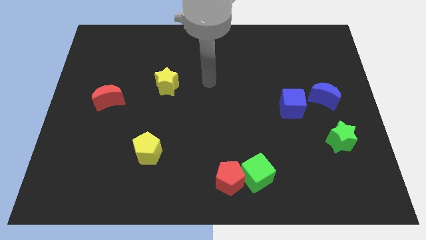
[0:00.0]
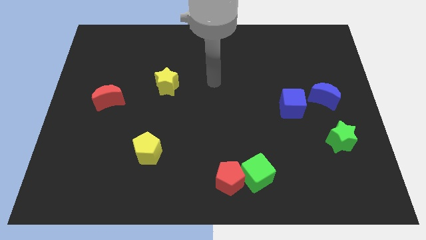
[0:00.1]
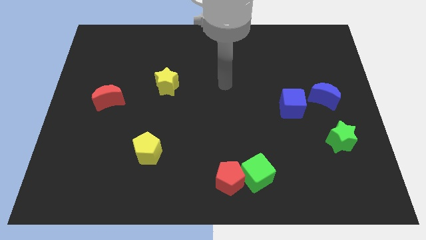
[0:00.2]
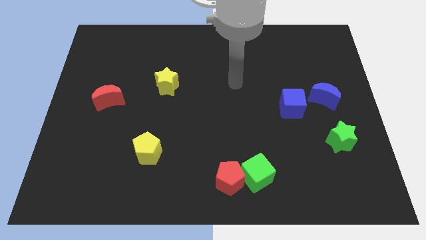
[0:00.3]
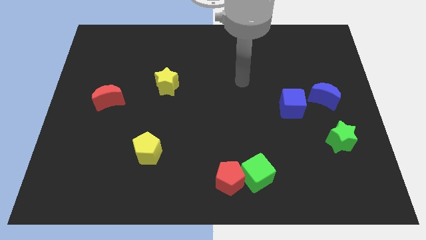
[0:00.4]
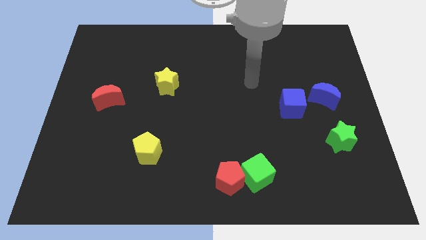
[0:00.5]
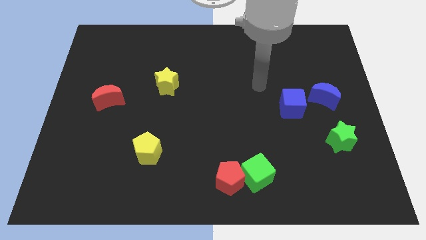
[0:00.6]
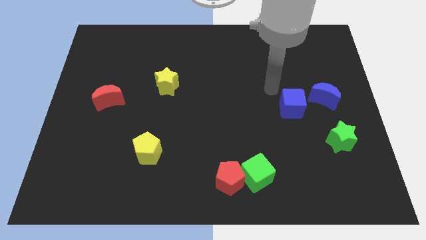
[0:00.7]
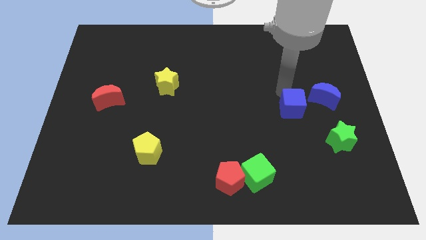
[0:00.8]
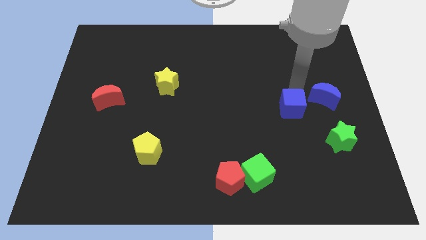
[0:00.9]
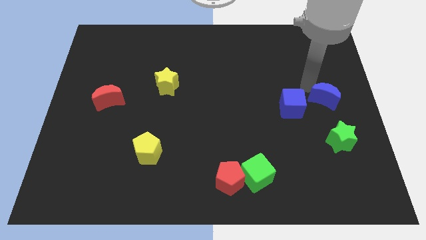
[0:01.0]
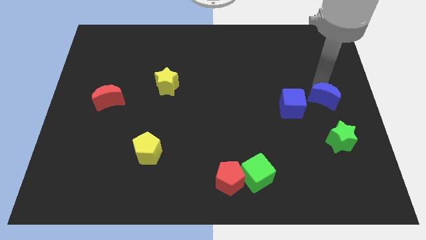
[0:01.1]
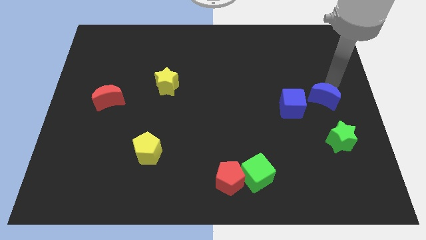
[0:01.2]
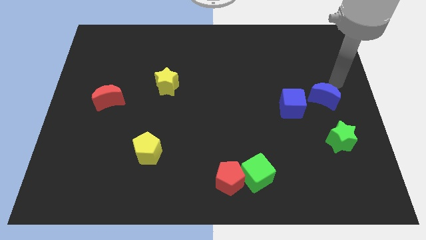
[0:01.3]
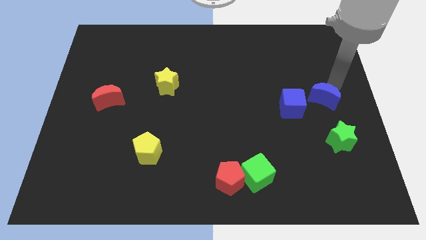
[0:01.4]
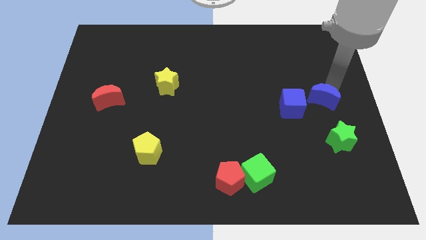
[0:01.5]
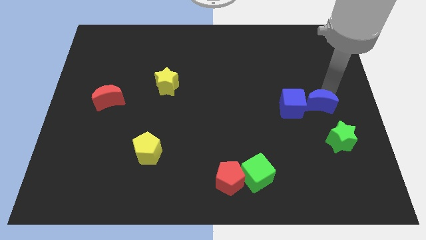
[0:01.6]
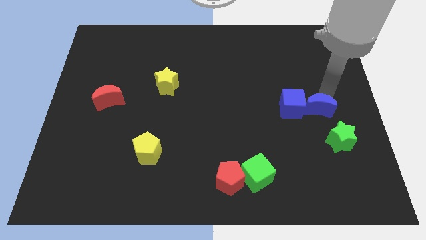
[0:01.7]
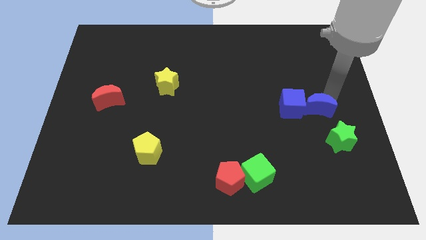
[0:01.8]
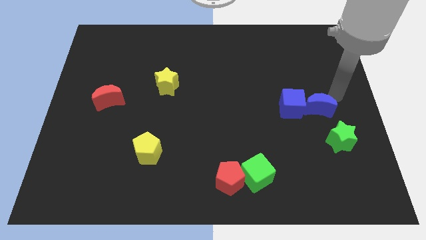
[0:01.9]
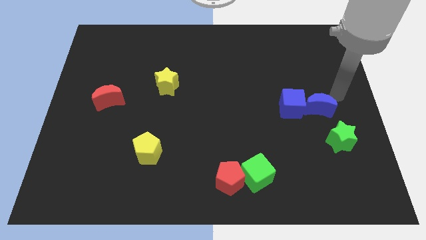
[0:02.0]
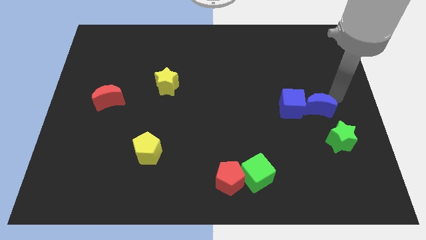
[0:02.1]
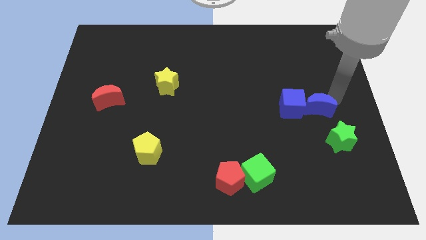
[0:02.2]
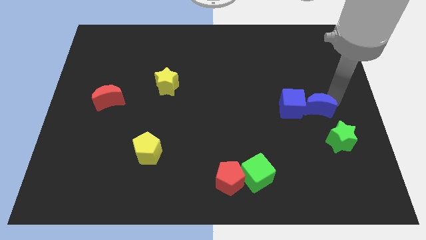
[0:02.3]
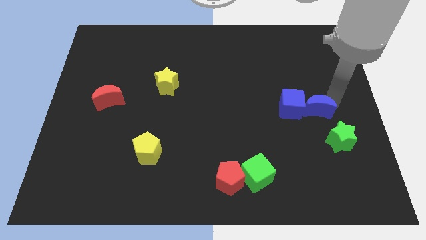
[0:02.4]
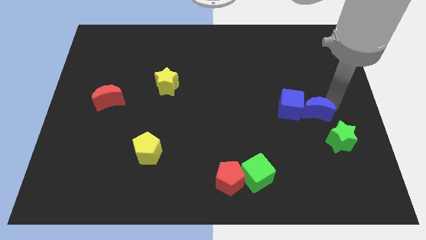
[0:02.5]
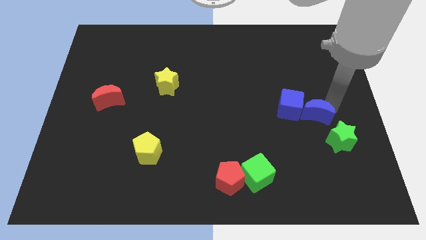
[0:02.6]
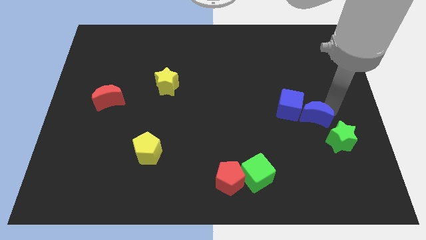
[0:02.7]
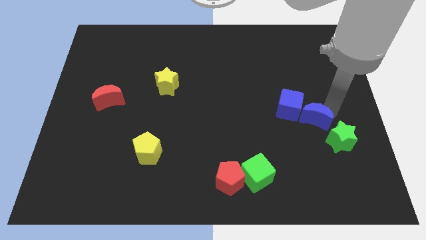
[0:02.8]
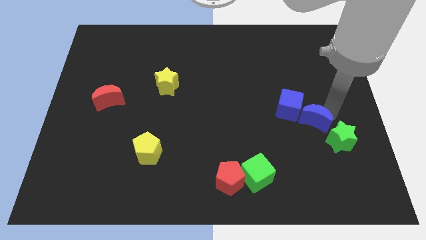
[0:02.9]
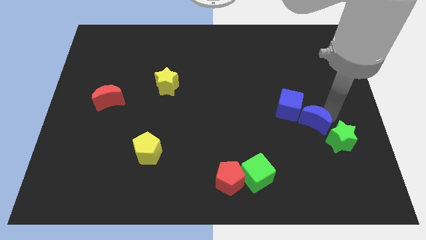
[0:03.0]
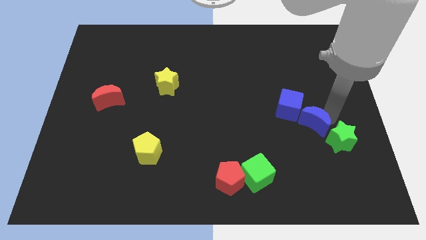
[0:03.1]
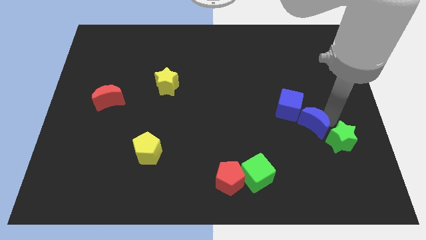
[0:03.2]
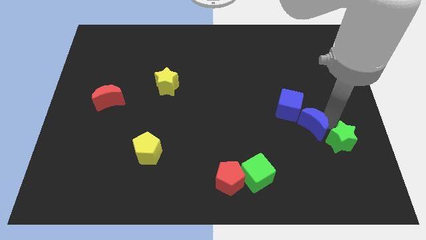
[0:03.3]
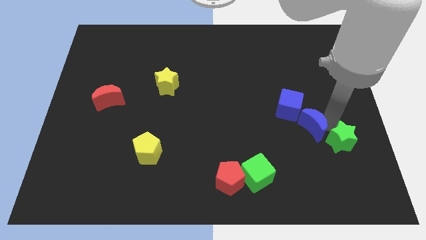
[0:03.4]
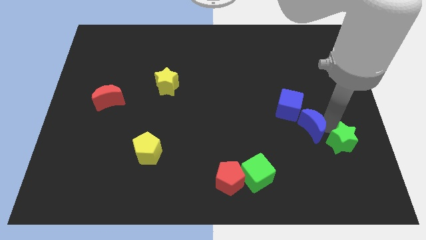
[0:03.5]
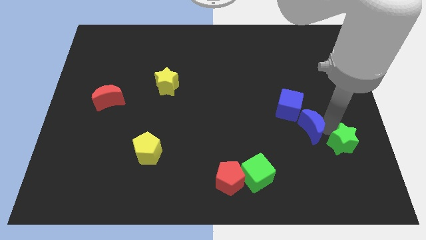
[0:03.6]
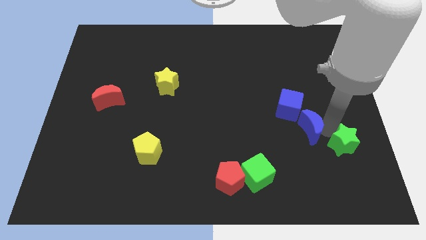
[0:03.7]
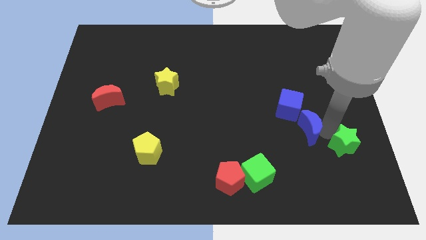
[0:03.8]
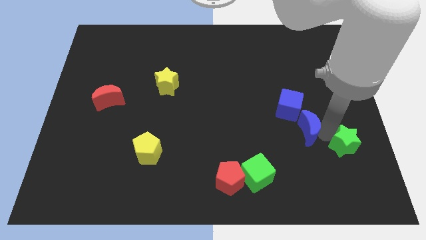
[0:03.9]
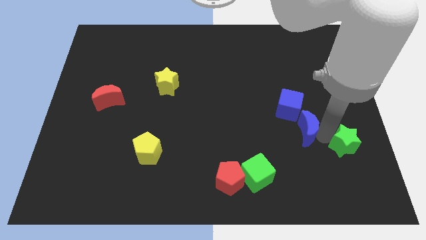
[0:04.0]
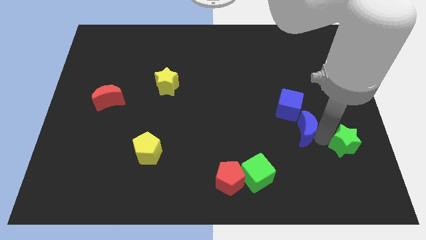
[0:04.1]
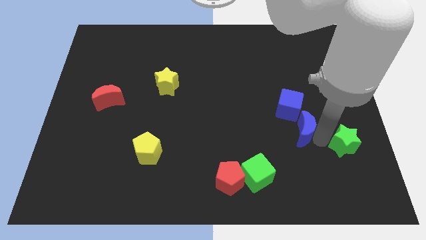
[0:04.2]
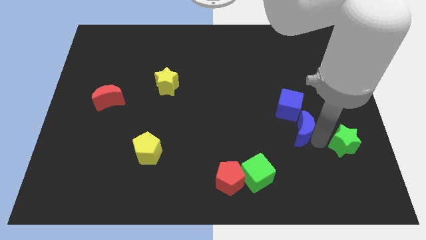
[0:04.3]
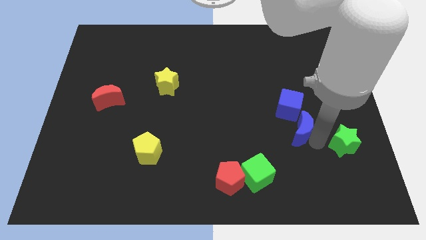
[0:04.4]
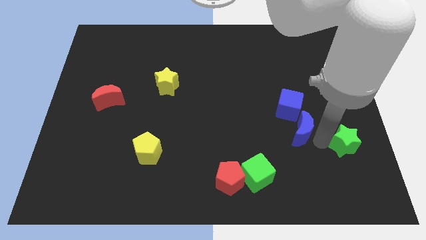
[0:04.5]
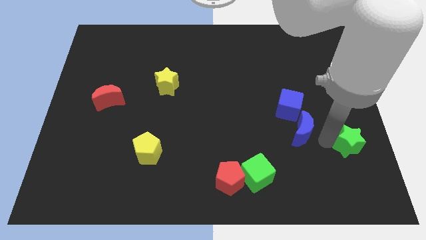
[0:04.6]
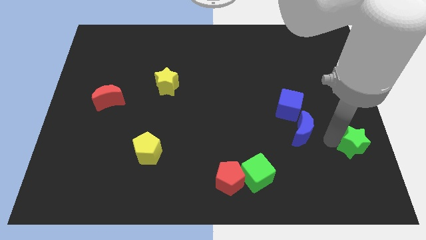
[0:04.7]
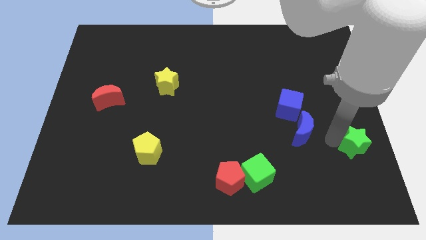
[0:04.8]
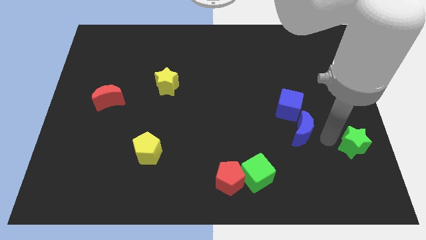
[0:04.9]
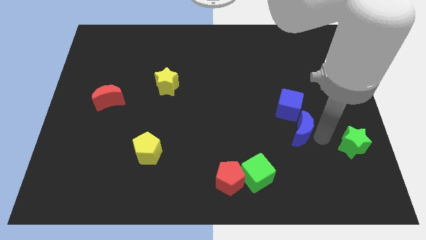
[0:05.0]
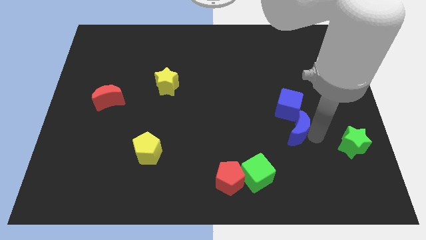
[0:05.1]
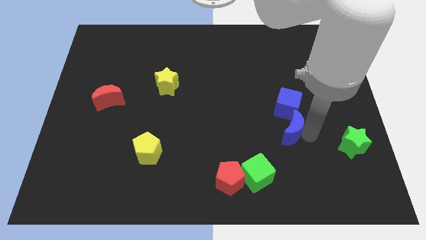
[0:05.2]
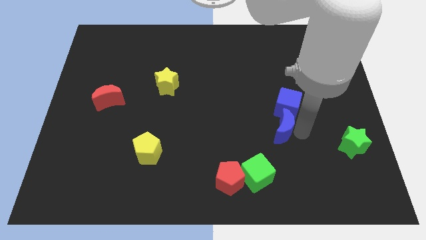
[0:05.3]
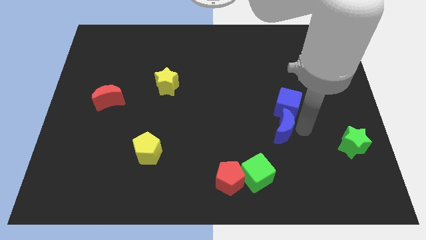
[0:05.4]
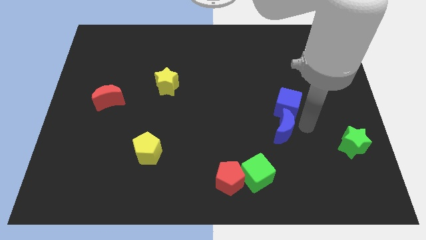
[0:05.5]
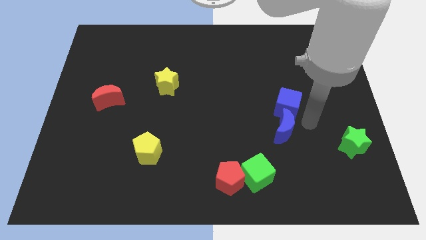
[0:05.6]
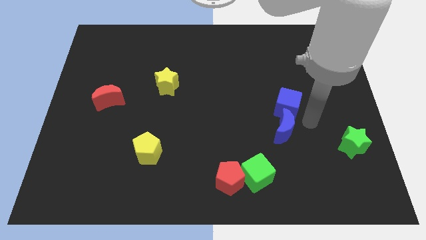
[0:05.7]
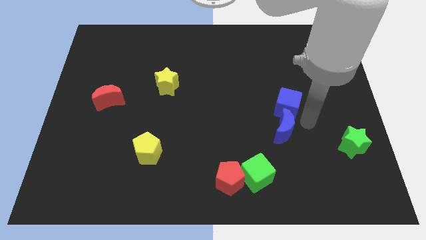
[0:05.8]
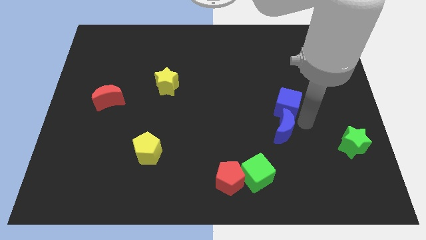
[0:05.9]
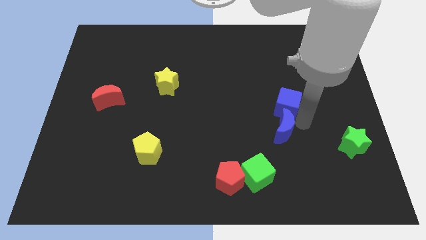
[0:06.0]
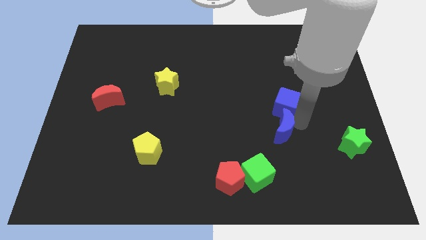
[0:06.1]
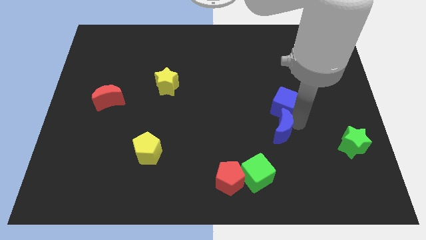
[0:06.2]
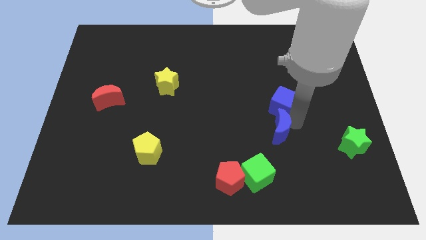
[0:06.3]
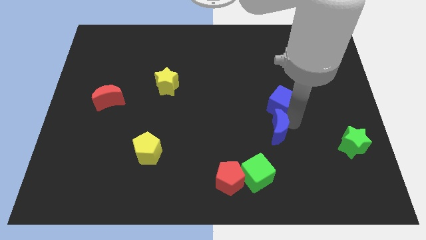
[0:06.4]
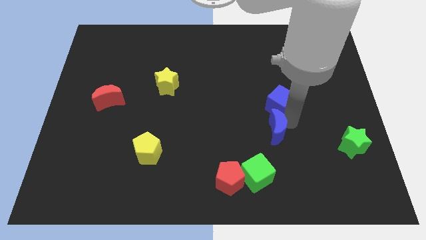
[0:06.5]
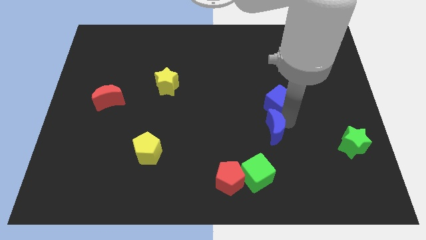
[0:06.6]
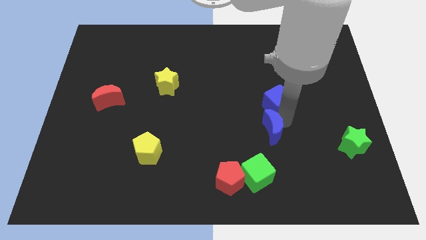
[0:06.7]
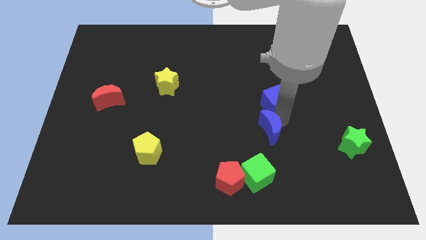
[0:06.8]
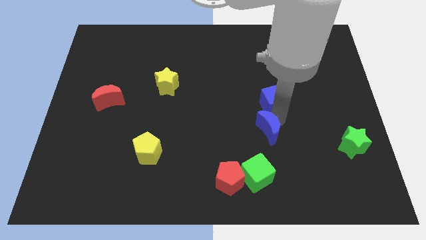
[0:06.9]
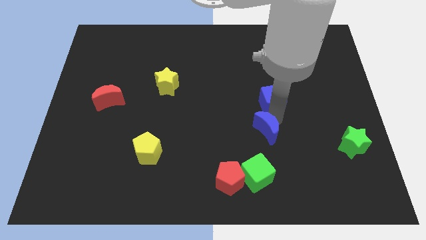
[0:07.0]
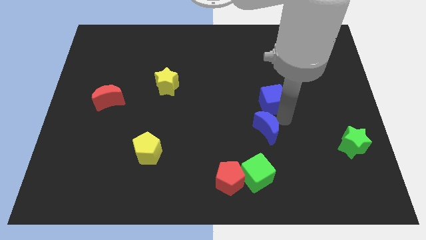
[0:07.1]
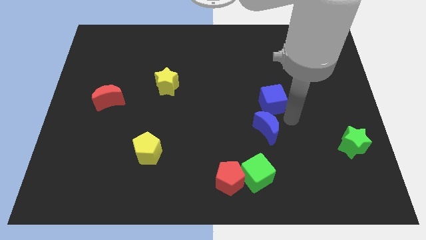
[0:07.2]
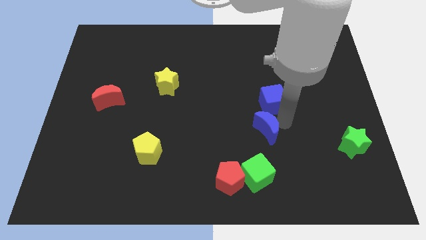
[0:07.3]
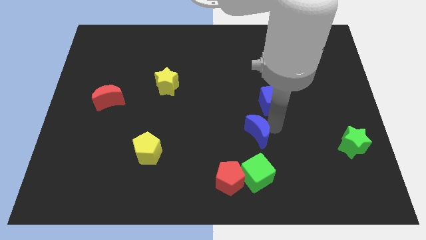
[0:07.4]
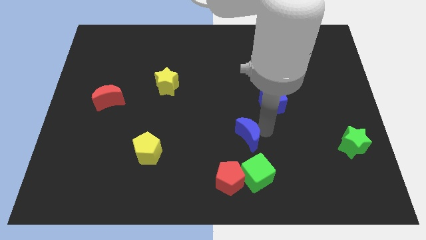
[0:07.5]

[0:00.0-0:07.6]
put the blue moon diagonally up and to the right of the red pentagon

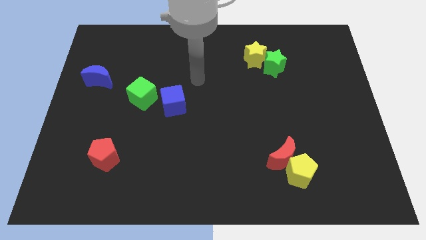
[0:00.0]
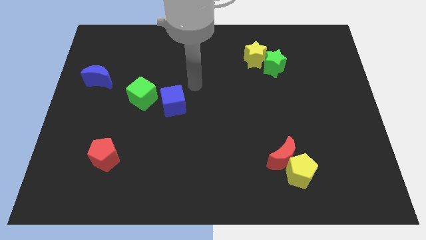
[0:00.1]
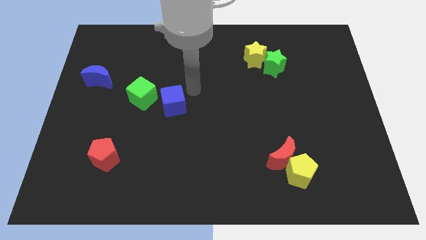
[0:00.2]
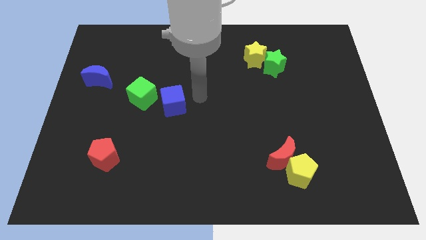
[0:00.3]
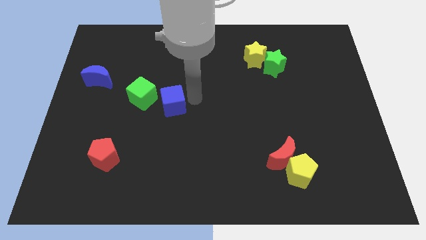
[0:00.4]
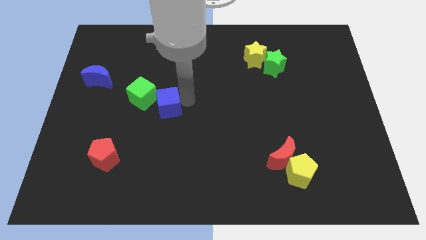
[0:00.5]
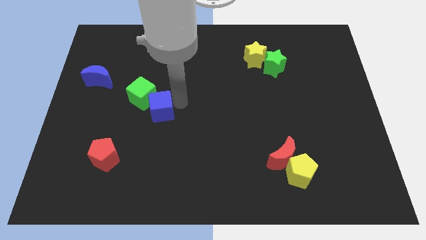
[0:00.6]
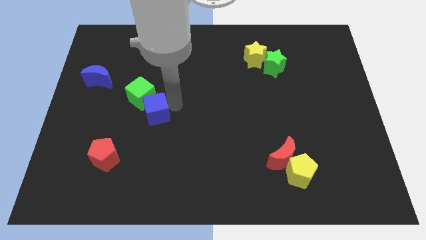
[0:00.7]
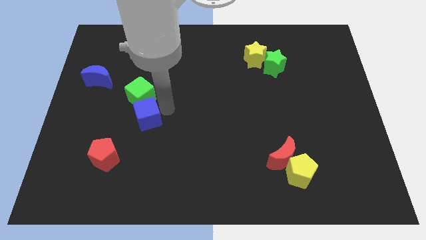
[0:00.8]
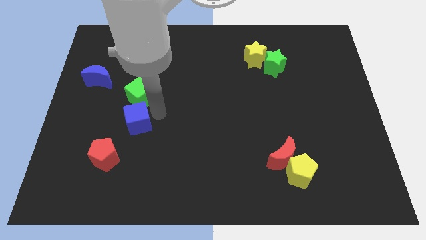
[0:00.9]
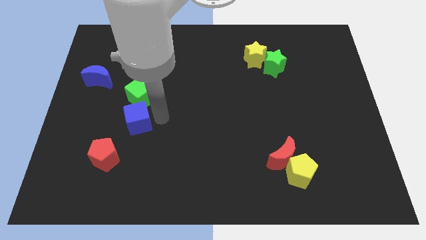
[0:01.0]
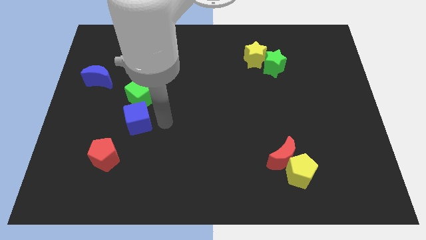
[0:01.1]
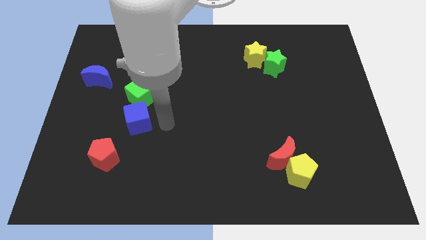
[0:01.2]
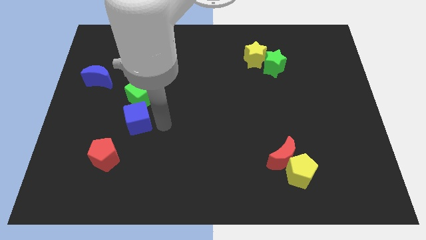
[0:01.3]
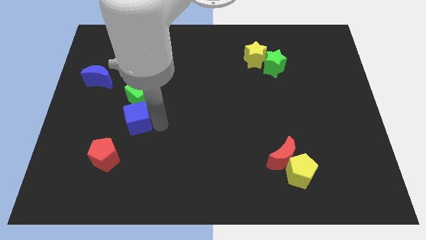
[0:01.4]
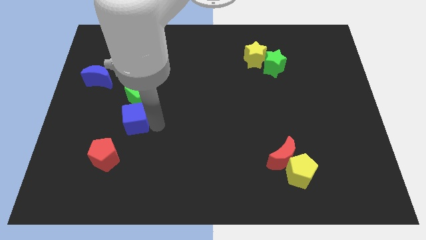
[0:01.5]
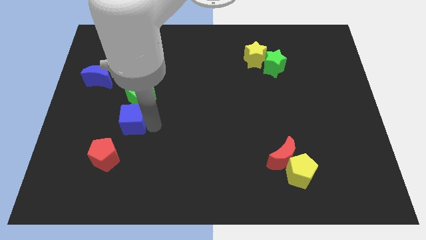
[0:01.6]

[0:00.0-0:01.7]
move the blue cube above the red pentagon
